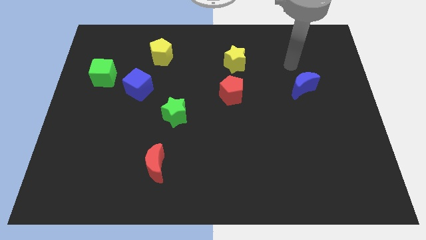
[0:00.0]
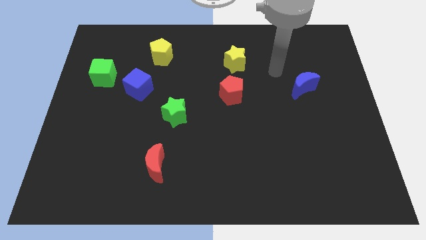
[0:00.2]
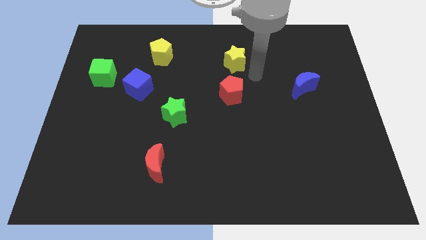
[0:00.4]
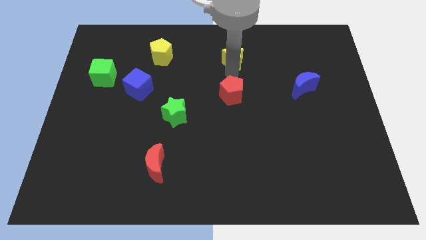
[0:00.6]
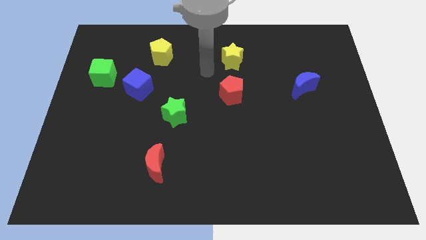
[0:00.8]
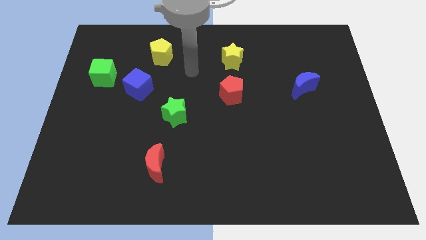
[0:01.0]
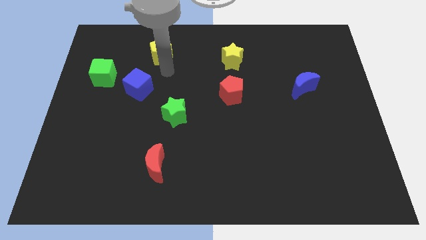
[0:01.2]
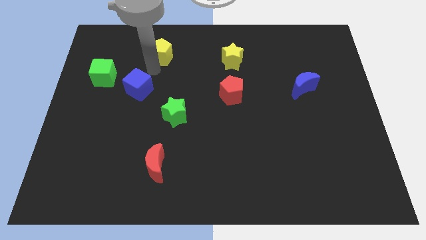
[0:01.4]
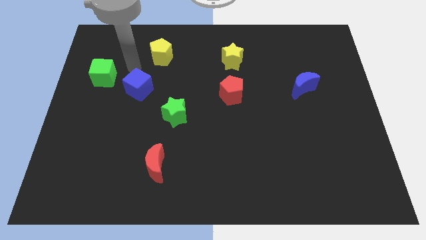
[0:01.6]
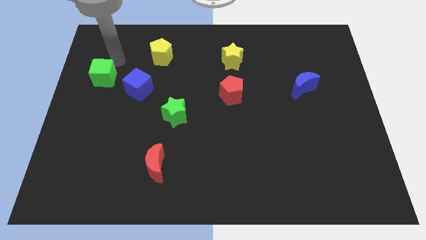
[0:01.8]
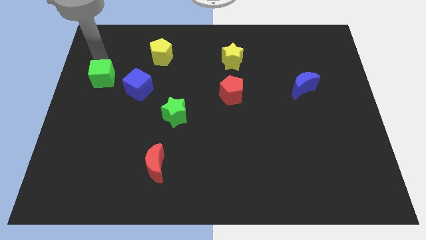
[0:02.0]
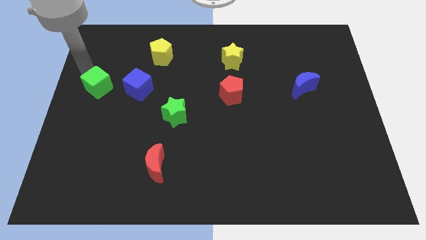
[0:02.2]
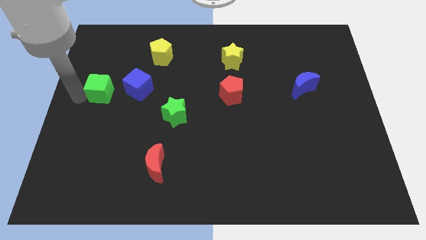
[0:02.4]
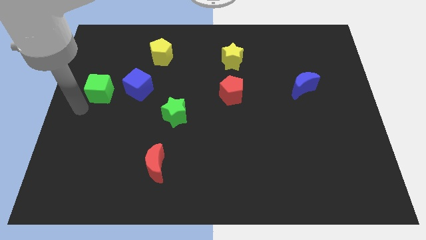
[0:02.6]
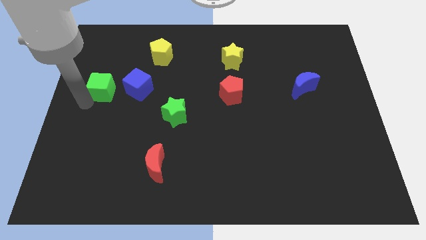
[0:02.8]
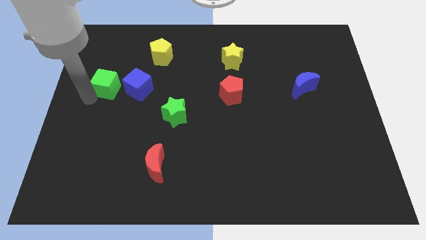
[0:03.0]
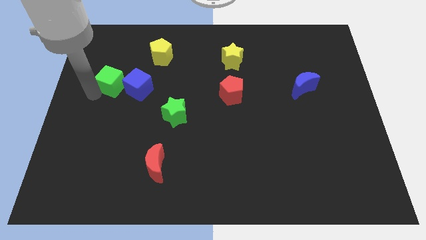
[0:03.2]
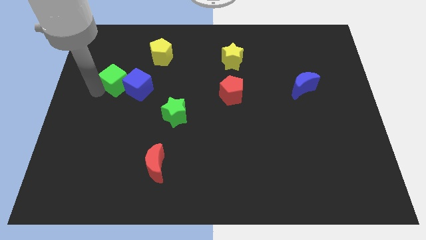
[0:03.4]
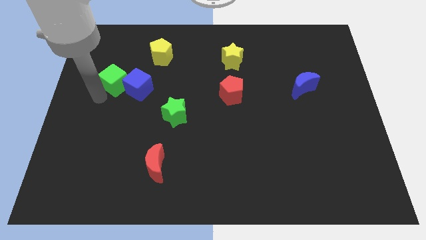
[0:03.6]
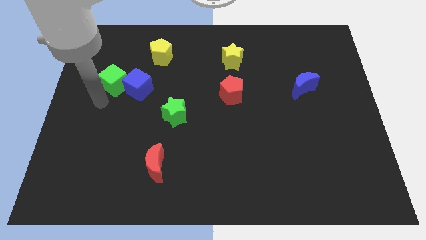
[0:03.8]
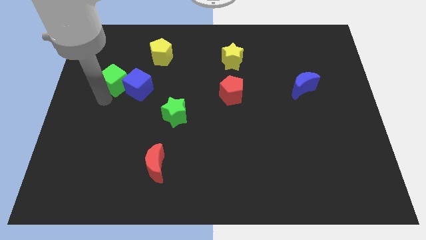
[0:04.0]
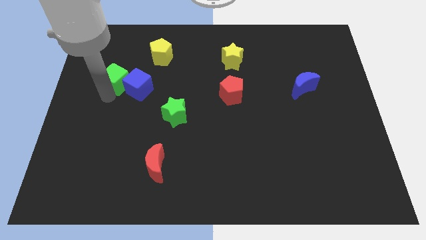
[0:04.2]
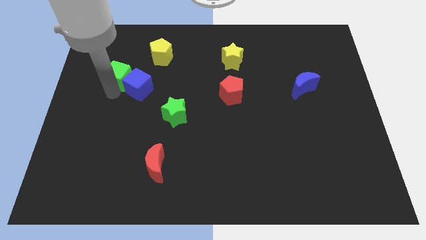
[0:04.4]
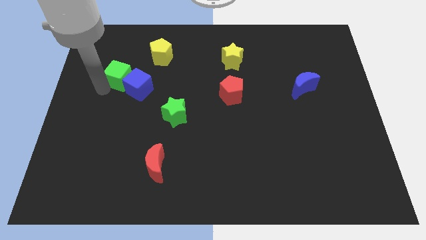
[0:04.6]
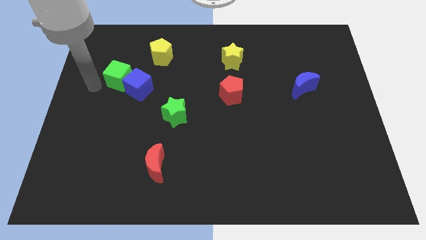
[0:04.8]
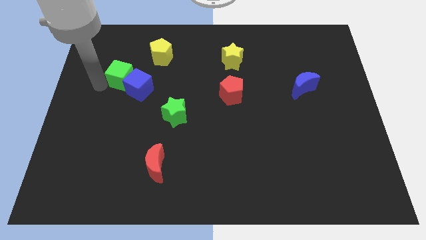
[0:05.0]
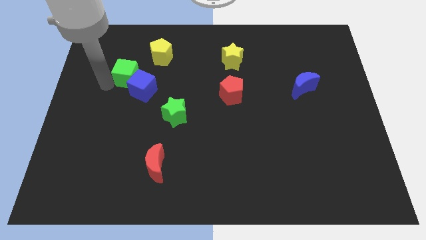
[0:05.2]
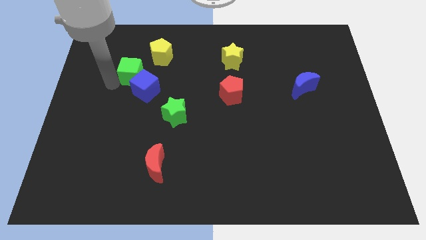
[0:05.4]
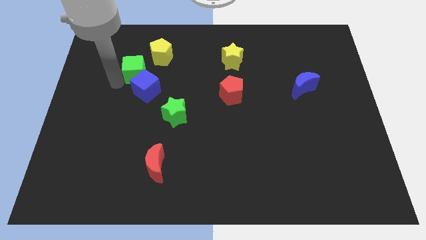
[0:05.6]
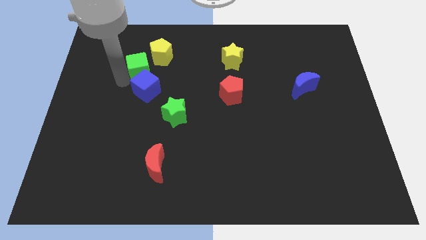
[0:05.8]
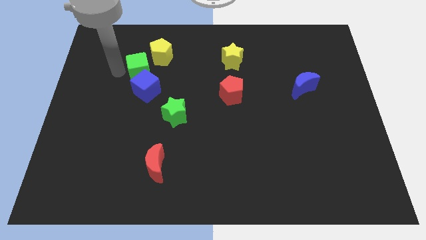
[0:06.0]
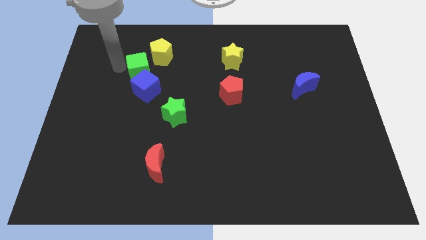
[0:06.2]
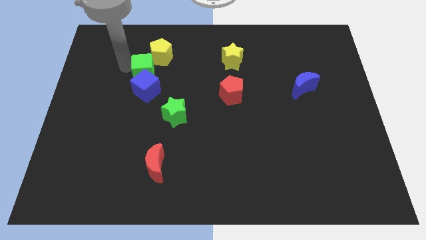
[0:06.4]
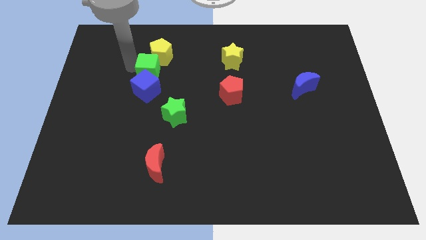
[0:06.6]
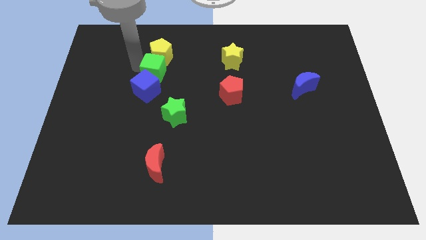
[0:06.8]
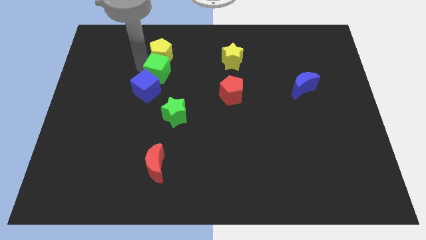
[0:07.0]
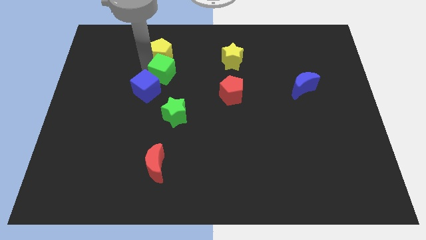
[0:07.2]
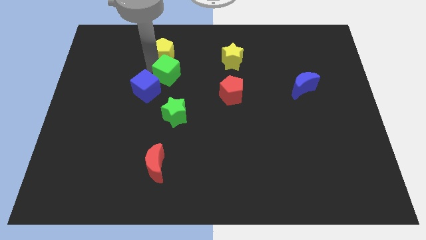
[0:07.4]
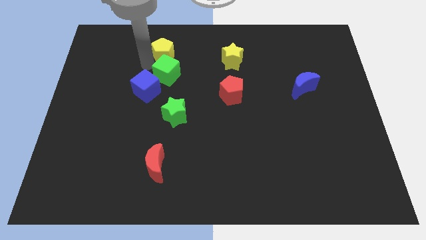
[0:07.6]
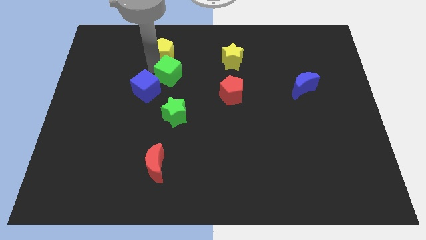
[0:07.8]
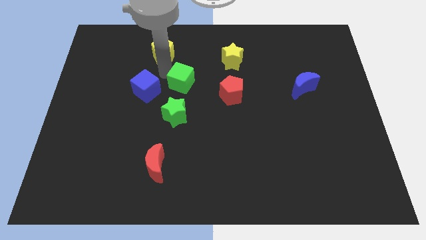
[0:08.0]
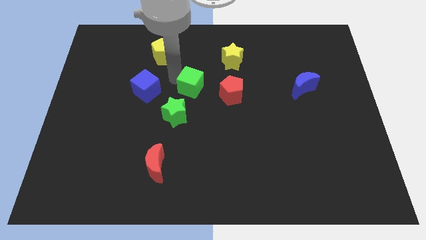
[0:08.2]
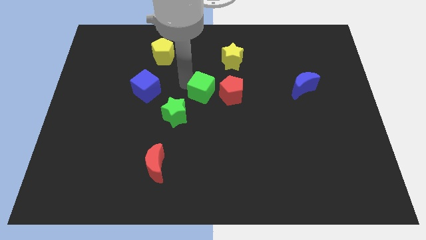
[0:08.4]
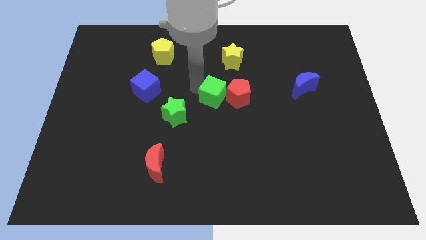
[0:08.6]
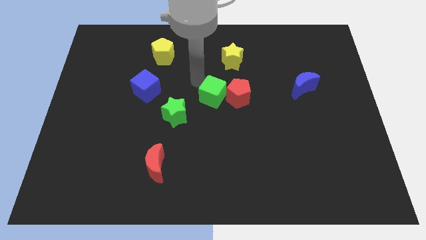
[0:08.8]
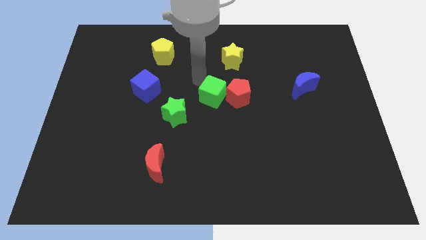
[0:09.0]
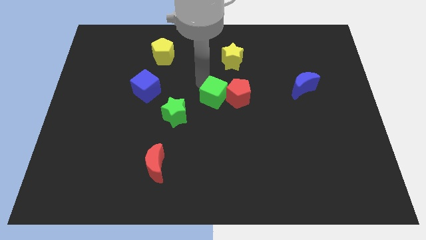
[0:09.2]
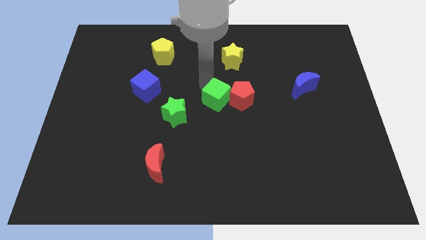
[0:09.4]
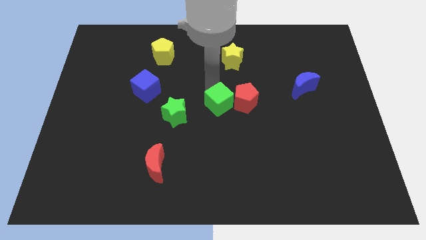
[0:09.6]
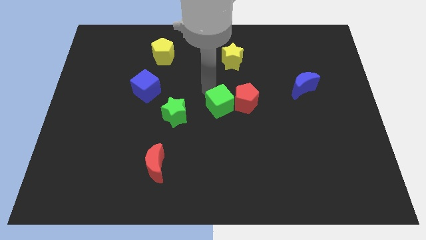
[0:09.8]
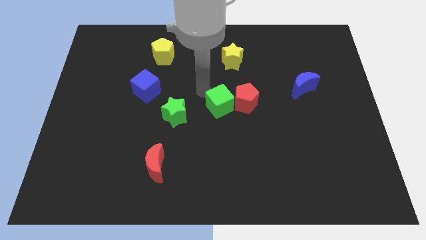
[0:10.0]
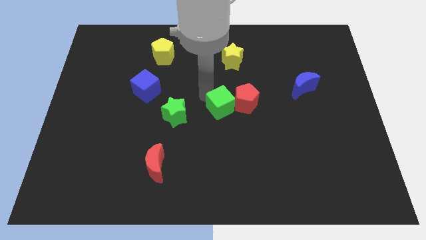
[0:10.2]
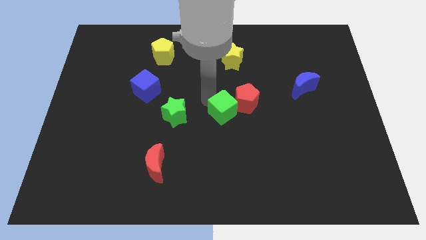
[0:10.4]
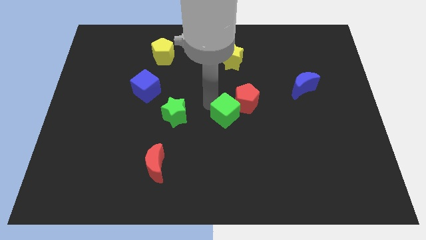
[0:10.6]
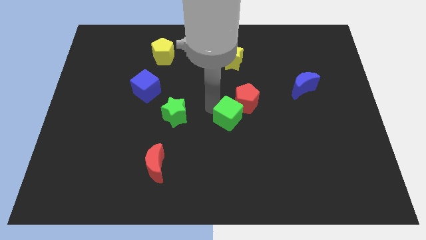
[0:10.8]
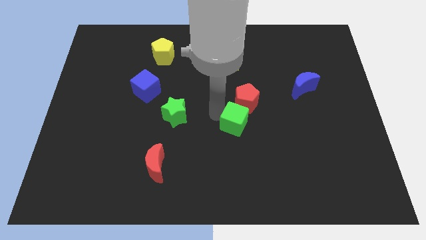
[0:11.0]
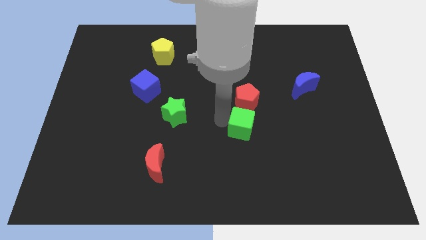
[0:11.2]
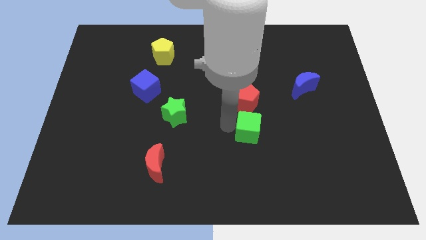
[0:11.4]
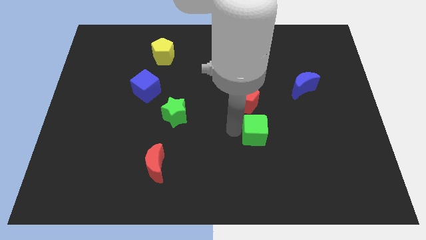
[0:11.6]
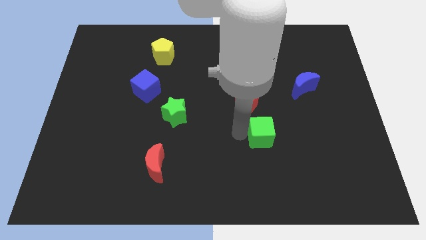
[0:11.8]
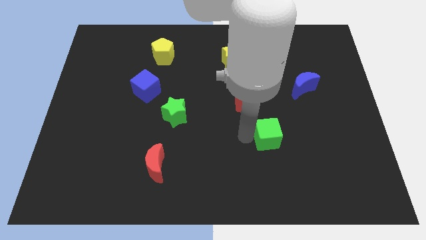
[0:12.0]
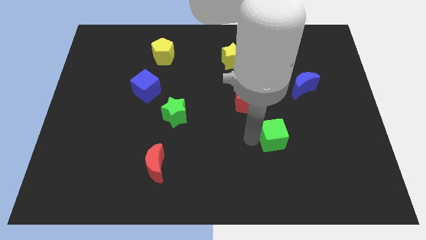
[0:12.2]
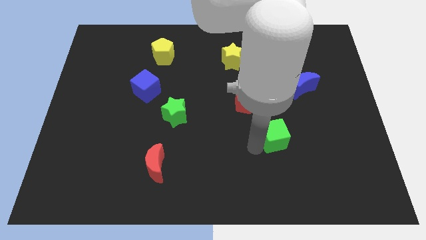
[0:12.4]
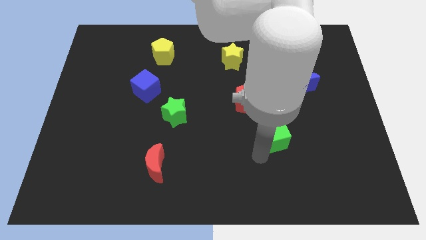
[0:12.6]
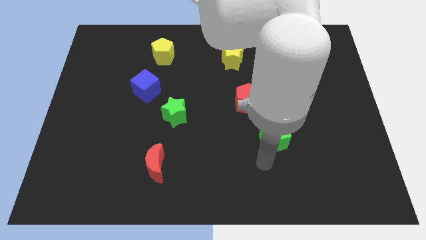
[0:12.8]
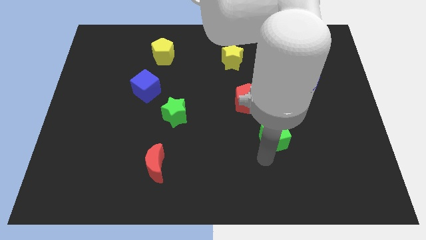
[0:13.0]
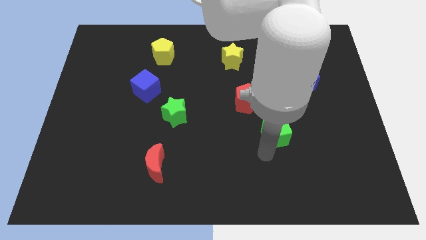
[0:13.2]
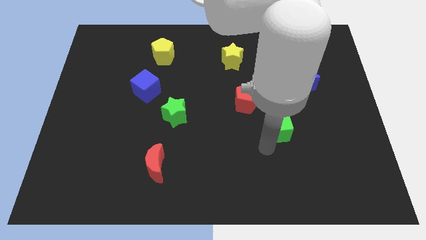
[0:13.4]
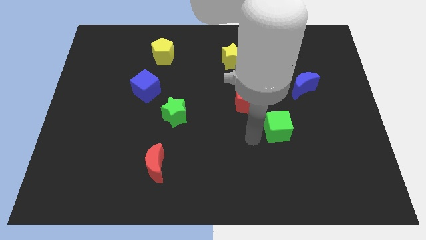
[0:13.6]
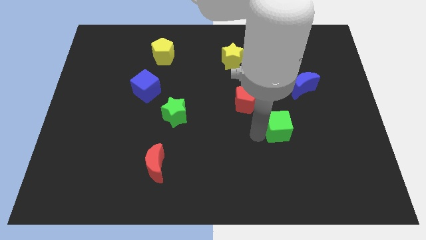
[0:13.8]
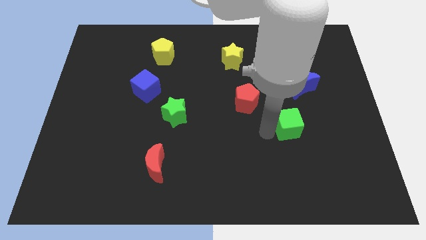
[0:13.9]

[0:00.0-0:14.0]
push the green cube to the bottom side of the blue moon
